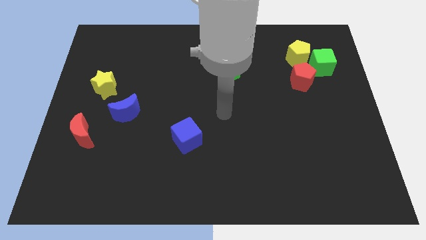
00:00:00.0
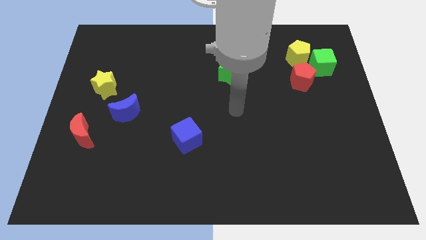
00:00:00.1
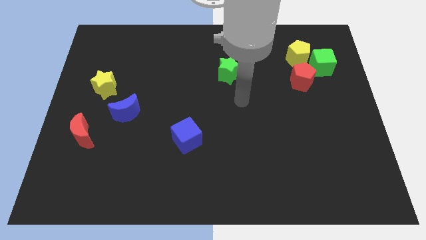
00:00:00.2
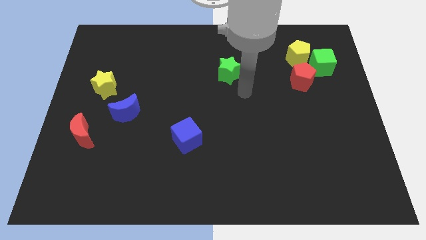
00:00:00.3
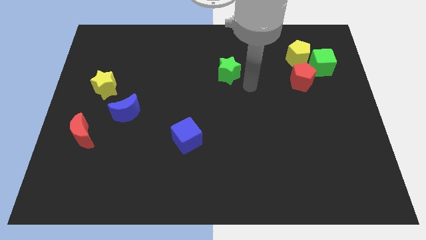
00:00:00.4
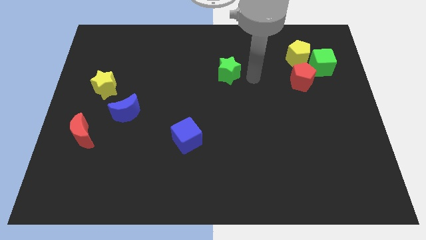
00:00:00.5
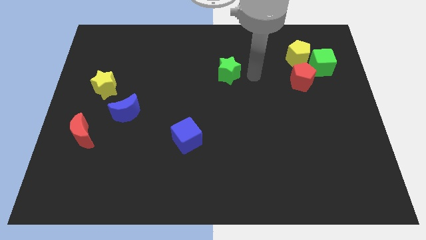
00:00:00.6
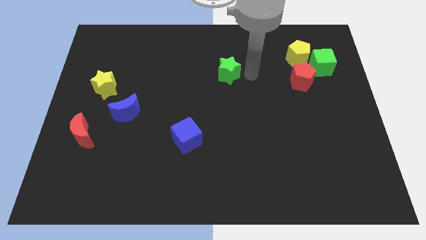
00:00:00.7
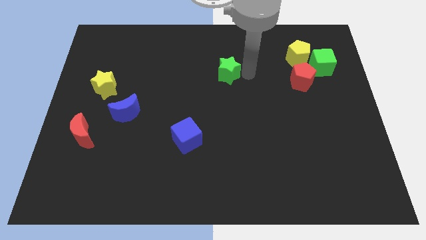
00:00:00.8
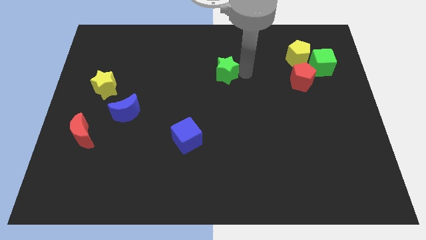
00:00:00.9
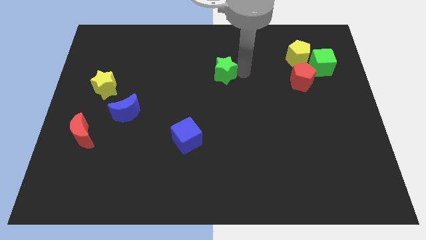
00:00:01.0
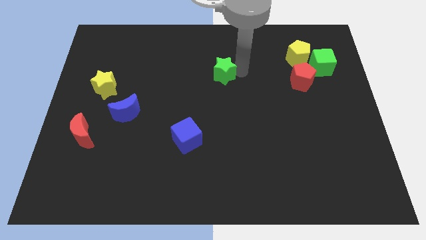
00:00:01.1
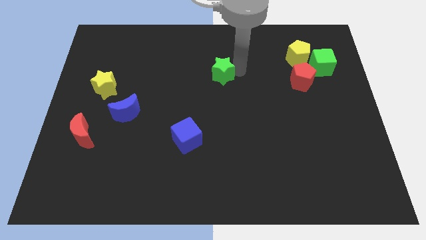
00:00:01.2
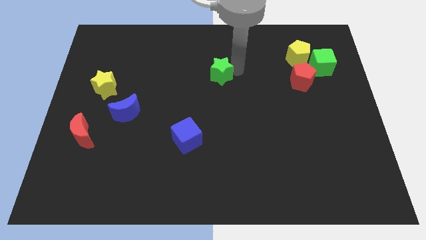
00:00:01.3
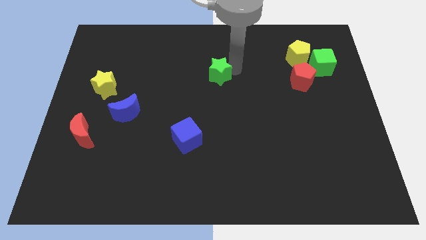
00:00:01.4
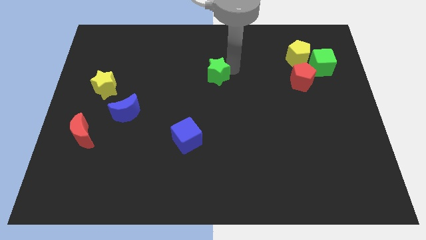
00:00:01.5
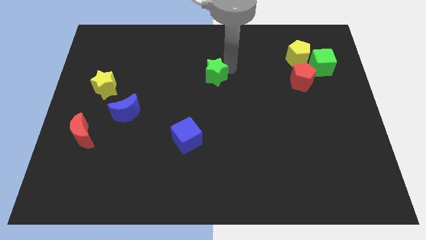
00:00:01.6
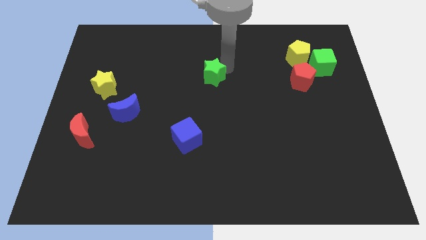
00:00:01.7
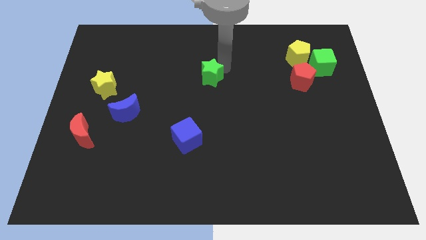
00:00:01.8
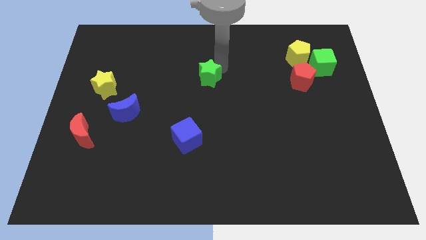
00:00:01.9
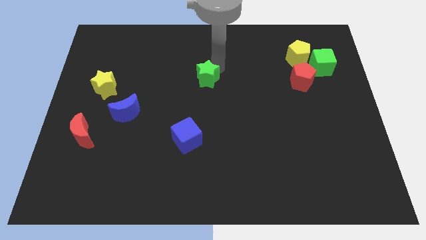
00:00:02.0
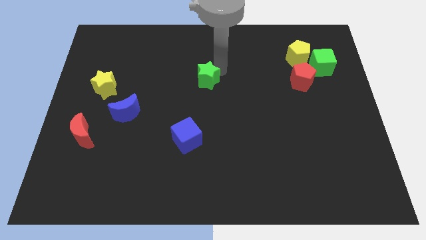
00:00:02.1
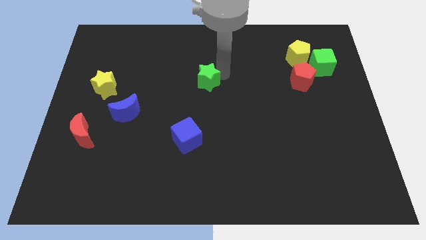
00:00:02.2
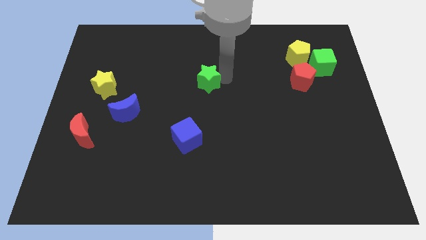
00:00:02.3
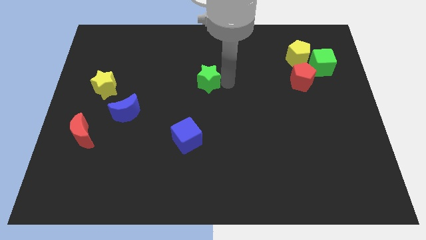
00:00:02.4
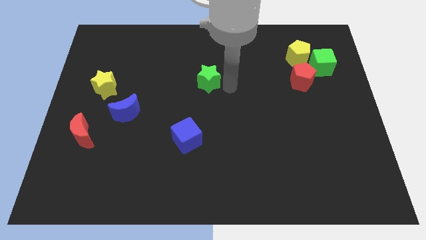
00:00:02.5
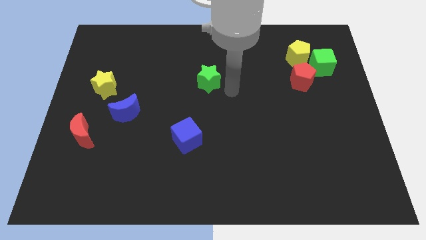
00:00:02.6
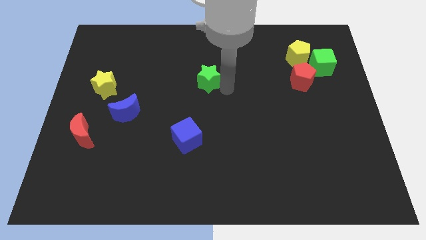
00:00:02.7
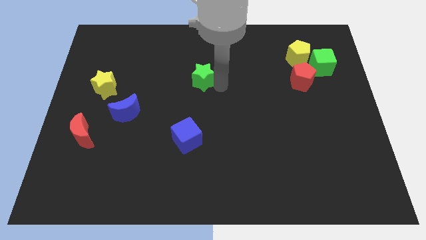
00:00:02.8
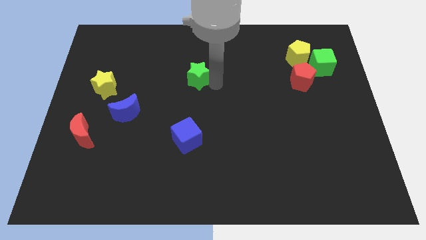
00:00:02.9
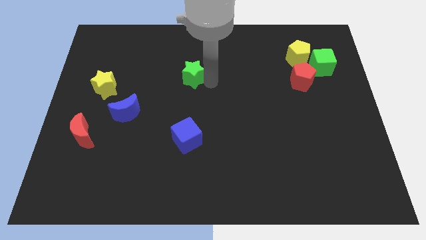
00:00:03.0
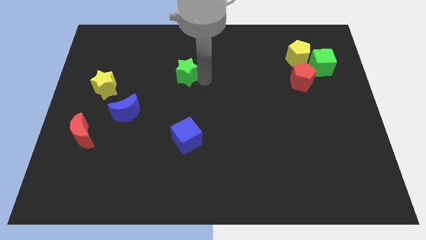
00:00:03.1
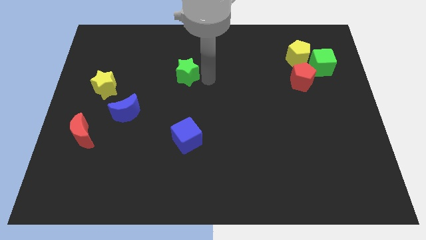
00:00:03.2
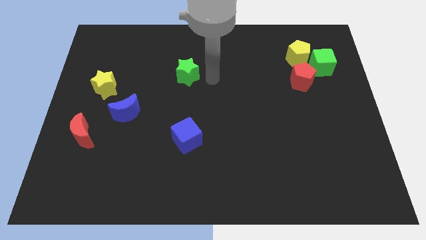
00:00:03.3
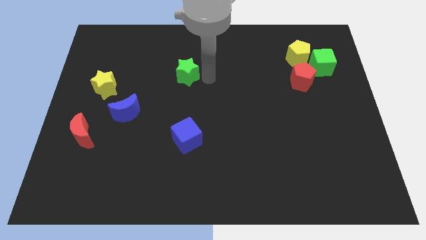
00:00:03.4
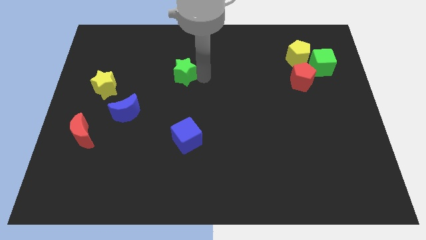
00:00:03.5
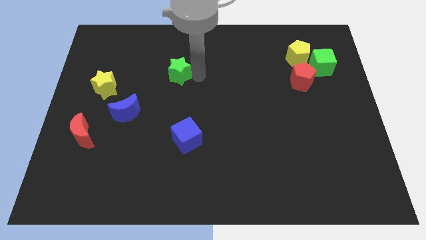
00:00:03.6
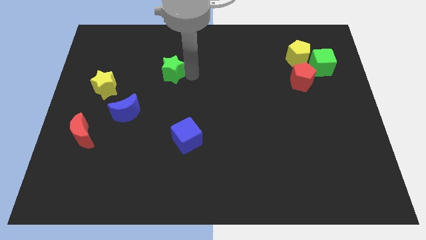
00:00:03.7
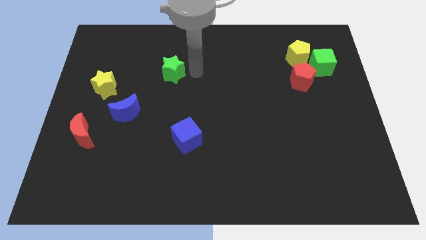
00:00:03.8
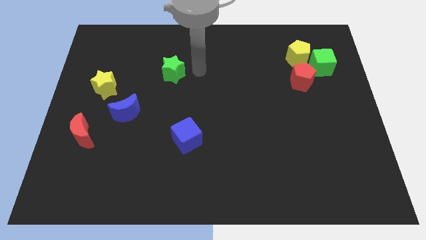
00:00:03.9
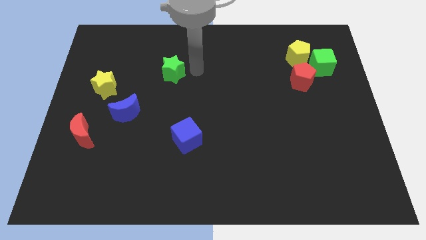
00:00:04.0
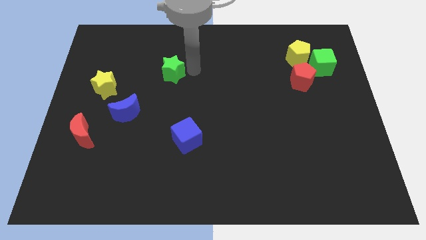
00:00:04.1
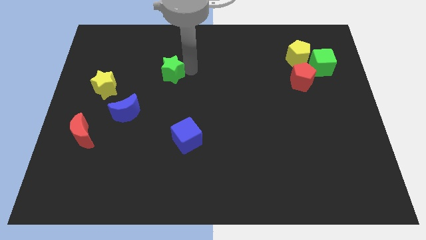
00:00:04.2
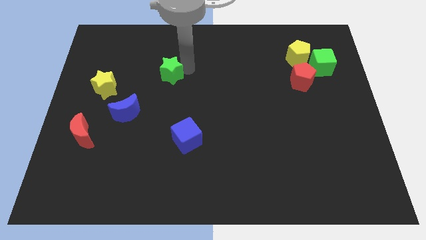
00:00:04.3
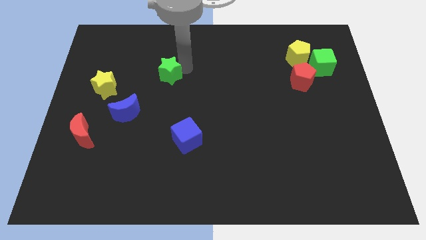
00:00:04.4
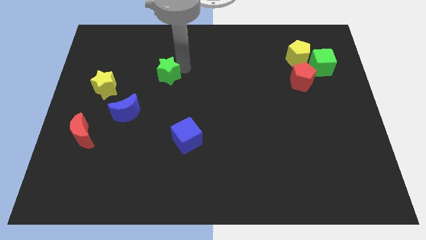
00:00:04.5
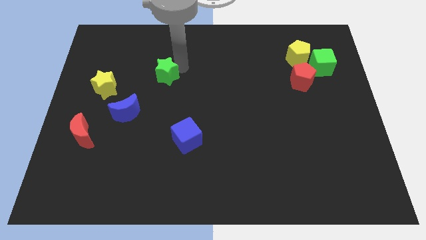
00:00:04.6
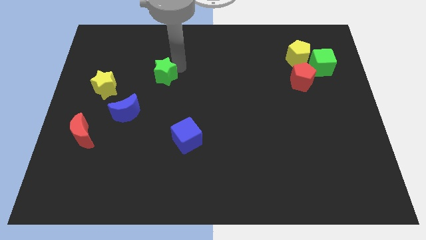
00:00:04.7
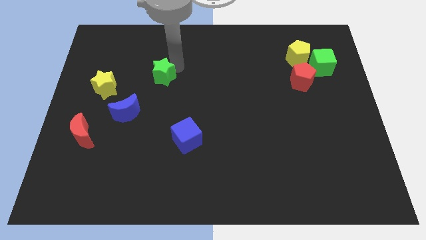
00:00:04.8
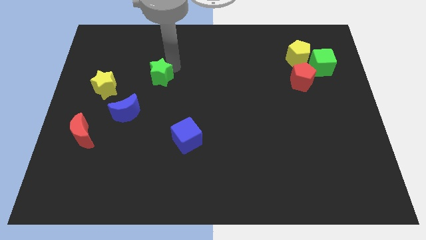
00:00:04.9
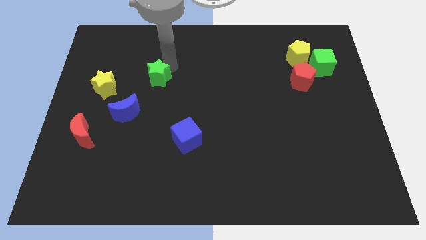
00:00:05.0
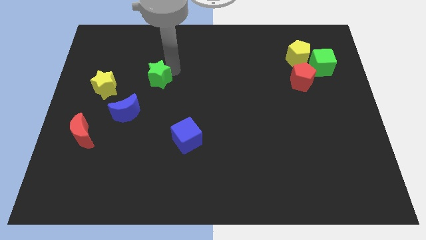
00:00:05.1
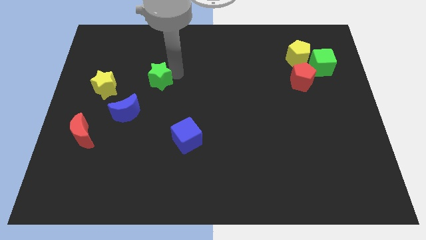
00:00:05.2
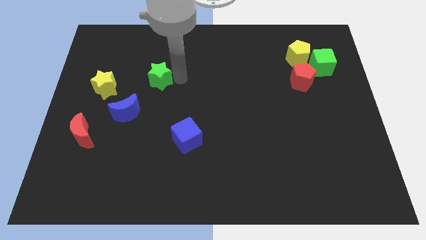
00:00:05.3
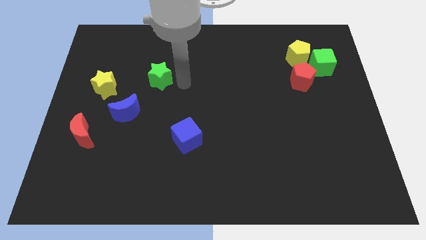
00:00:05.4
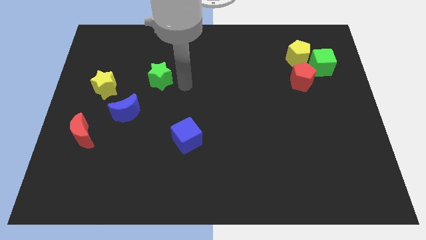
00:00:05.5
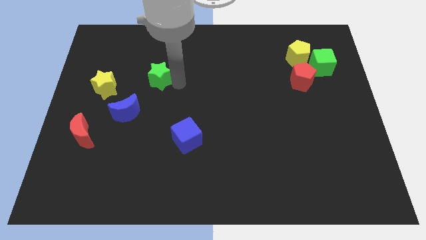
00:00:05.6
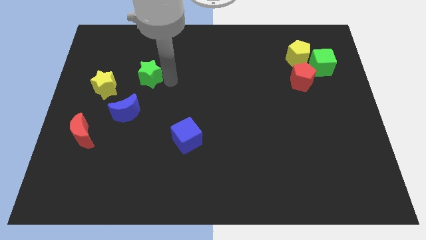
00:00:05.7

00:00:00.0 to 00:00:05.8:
slide the green star left

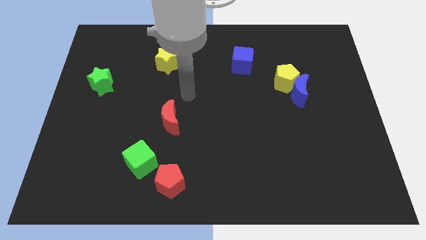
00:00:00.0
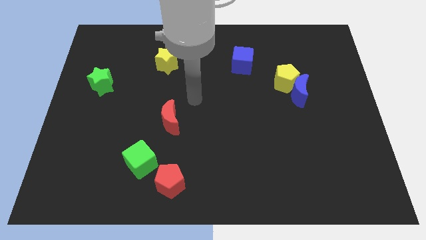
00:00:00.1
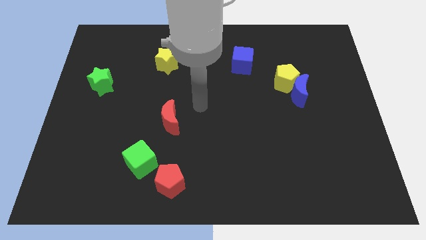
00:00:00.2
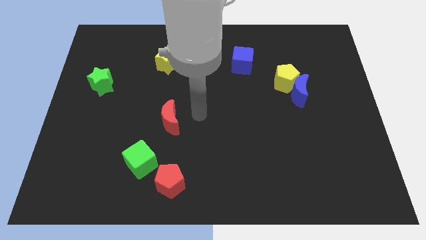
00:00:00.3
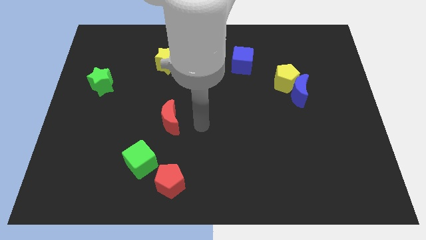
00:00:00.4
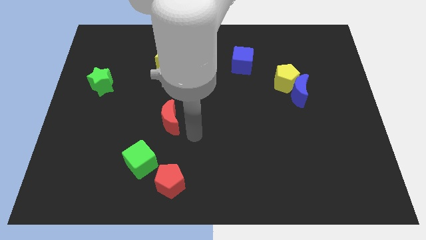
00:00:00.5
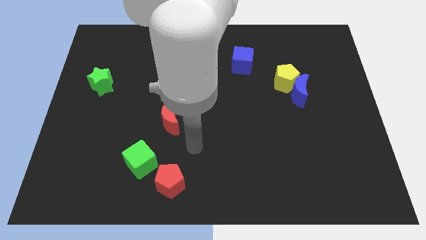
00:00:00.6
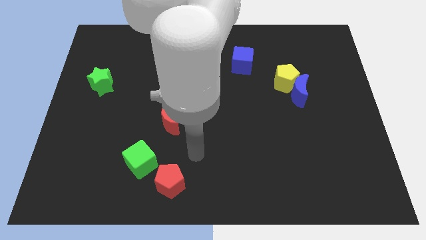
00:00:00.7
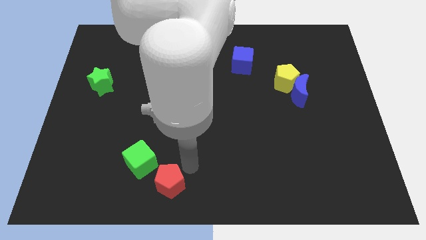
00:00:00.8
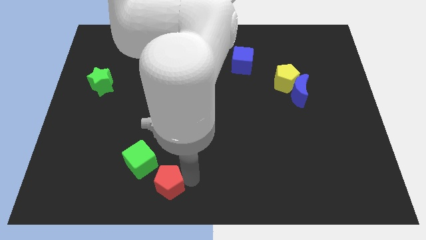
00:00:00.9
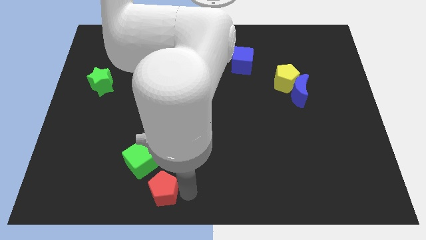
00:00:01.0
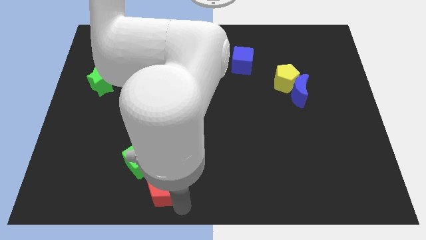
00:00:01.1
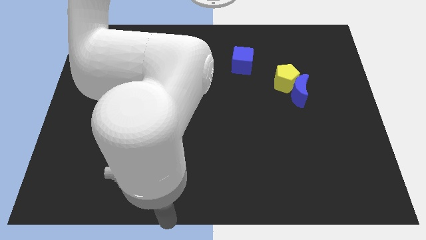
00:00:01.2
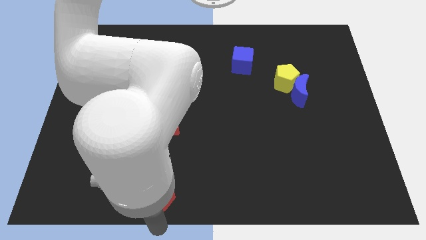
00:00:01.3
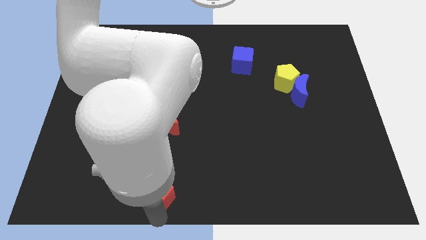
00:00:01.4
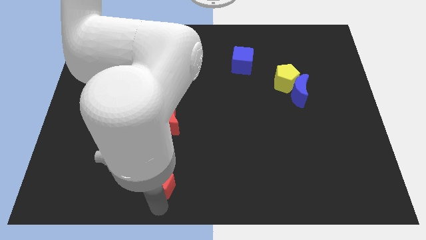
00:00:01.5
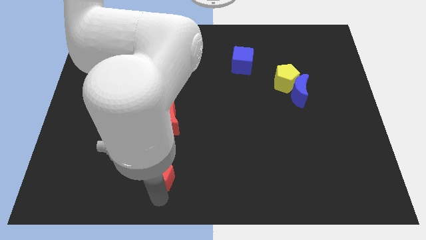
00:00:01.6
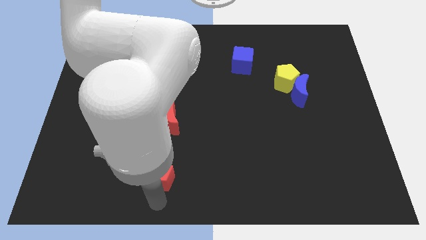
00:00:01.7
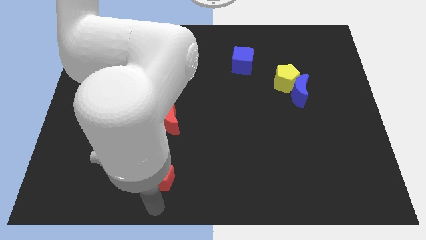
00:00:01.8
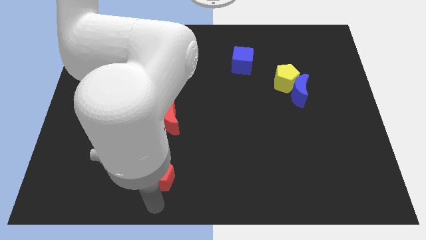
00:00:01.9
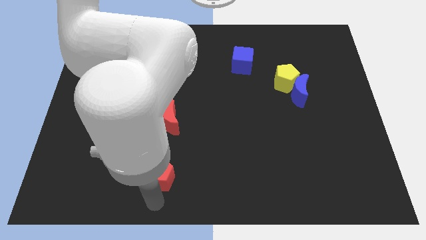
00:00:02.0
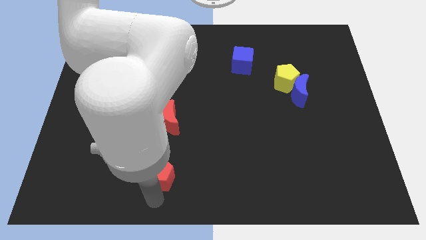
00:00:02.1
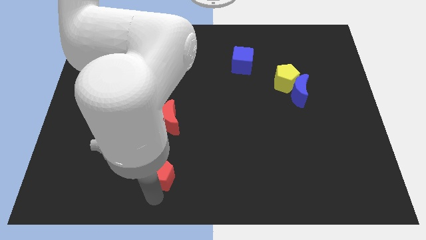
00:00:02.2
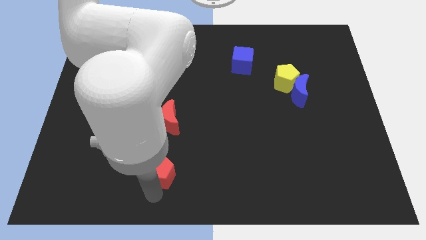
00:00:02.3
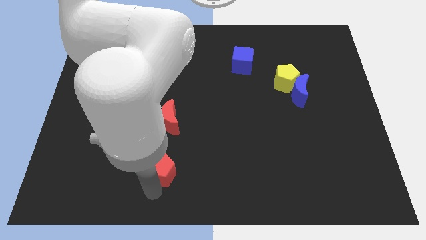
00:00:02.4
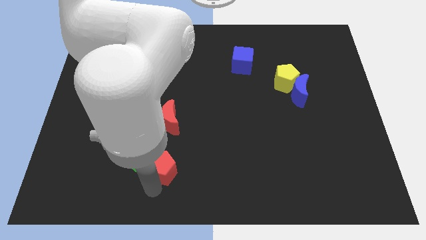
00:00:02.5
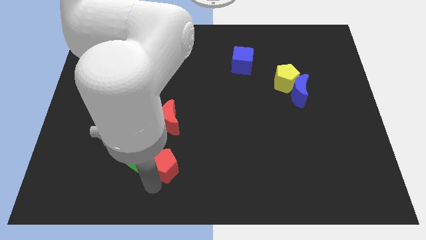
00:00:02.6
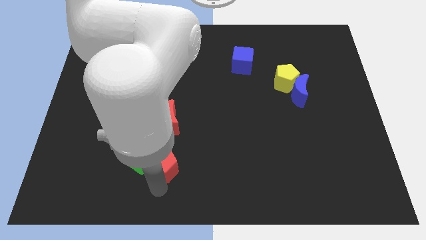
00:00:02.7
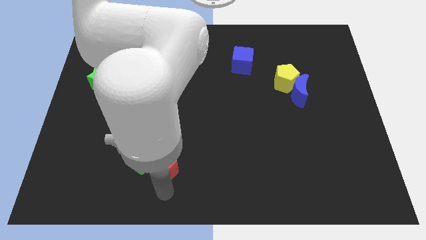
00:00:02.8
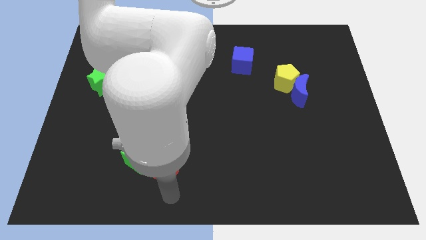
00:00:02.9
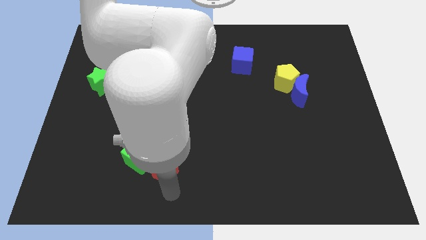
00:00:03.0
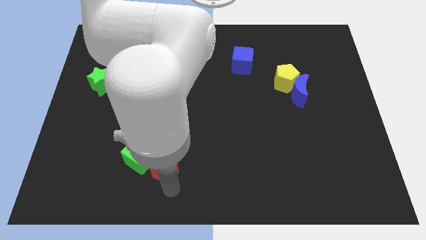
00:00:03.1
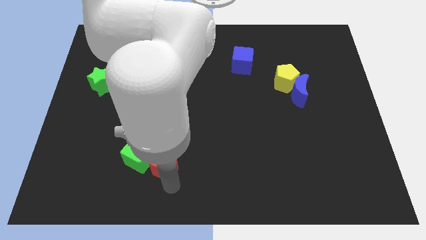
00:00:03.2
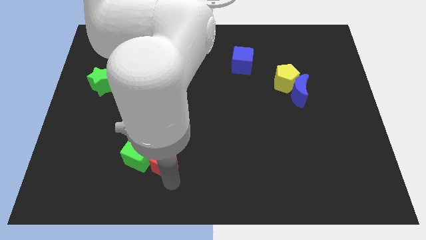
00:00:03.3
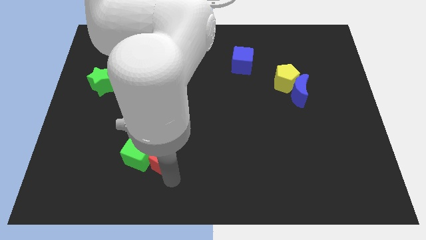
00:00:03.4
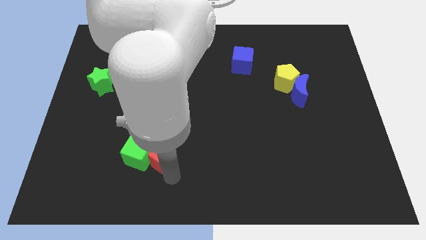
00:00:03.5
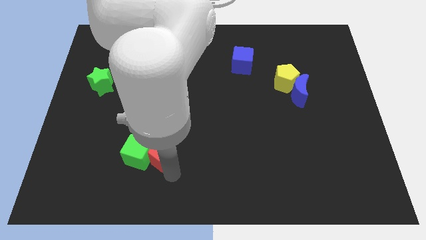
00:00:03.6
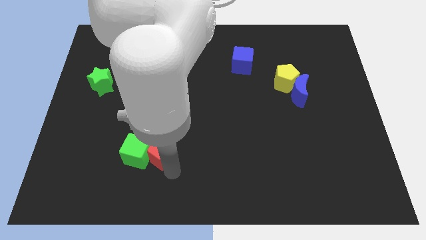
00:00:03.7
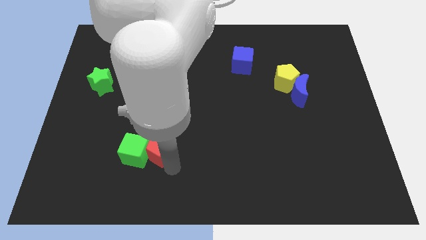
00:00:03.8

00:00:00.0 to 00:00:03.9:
slightly slide the red pentagon upwards
